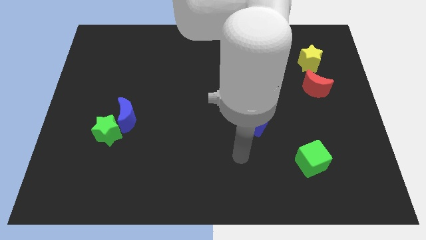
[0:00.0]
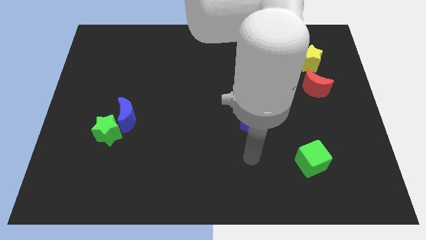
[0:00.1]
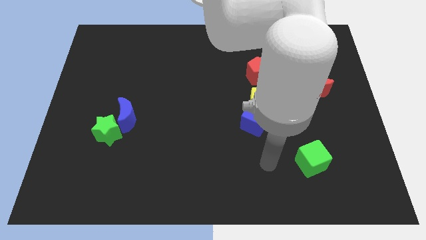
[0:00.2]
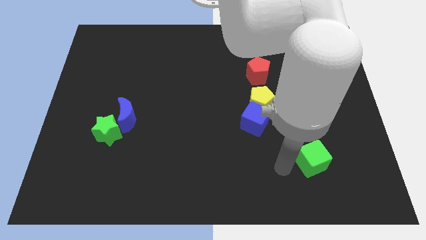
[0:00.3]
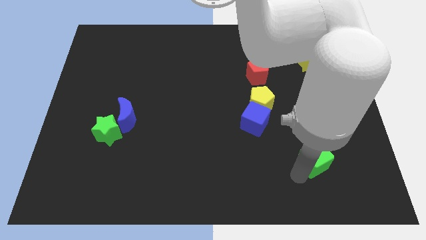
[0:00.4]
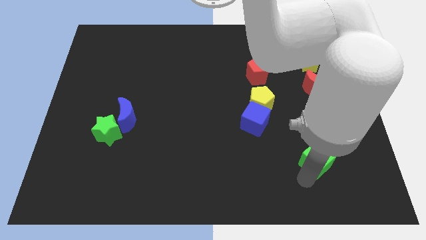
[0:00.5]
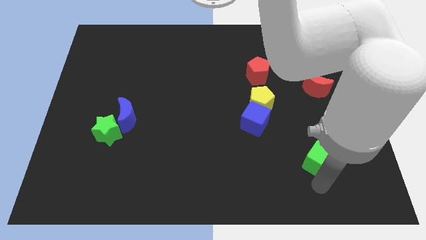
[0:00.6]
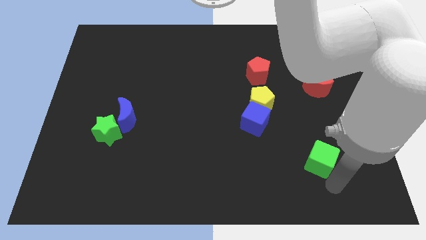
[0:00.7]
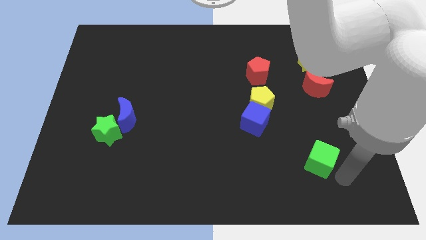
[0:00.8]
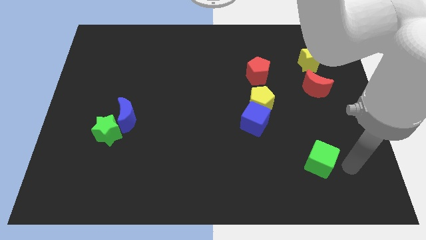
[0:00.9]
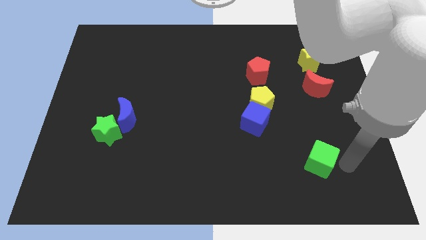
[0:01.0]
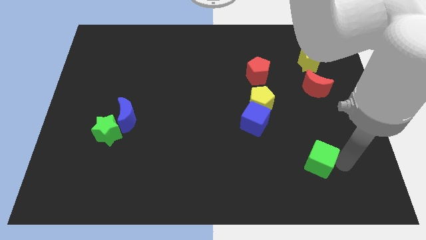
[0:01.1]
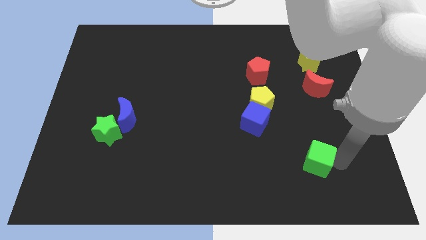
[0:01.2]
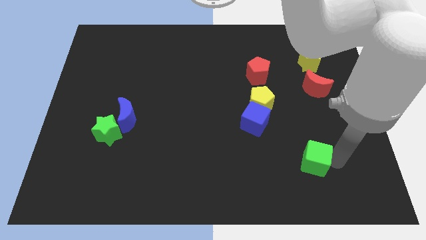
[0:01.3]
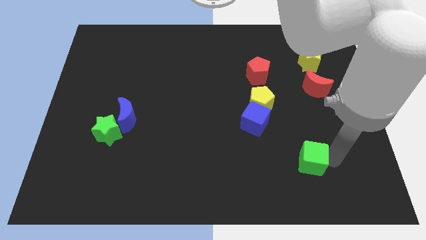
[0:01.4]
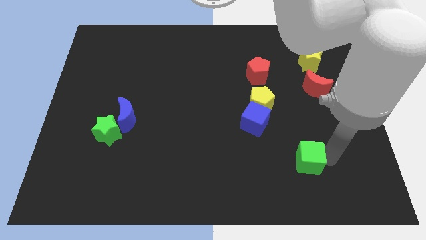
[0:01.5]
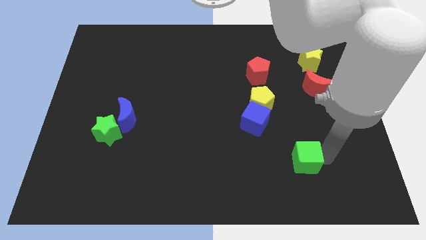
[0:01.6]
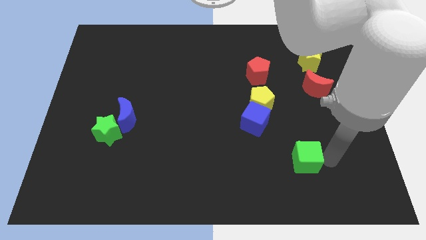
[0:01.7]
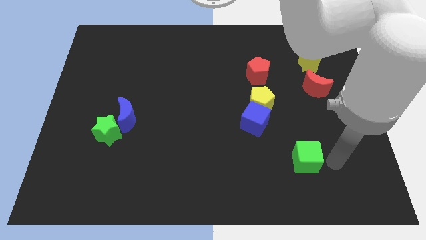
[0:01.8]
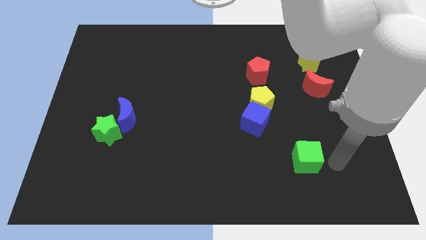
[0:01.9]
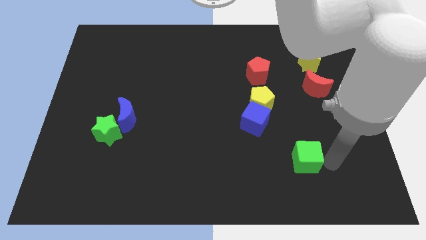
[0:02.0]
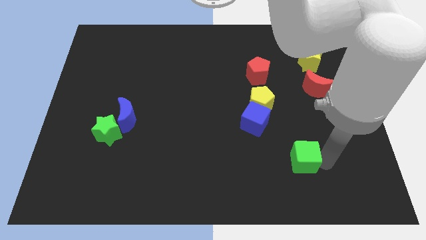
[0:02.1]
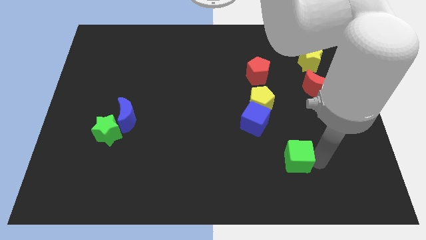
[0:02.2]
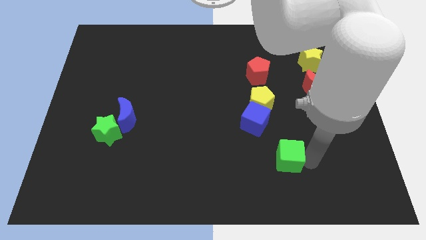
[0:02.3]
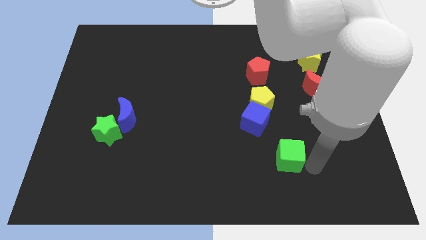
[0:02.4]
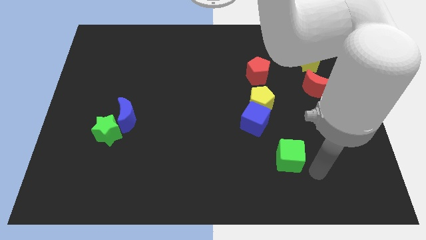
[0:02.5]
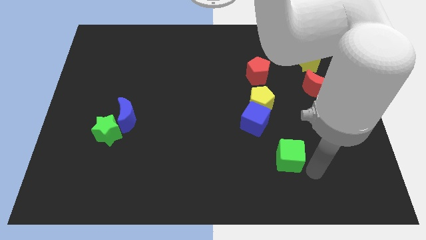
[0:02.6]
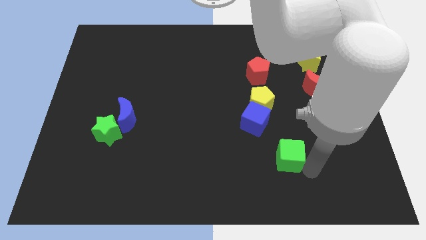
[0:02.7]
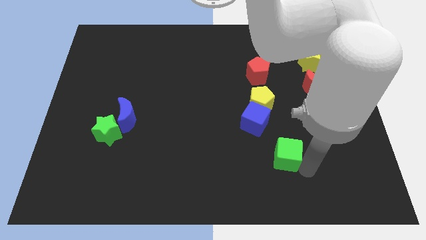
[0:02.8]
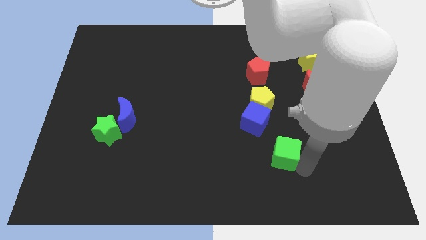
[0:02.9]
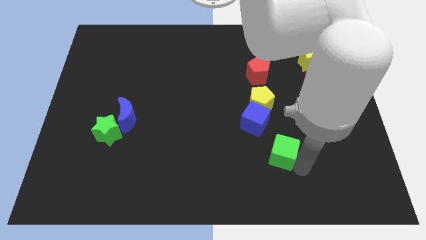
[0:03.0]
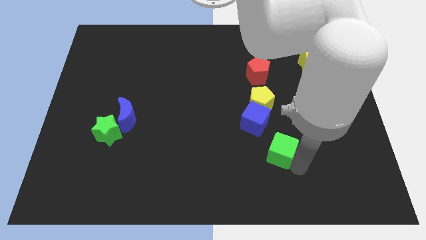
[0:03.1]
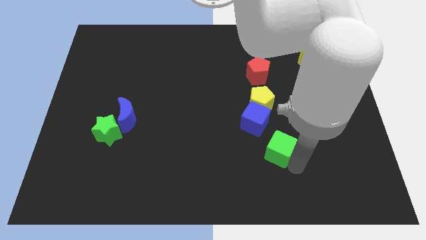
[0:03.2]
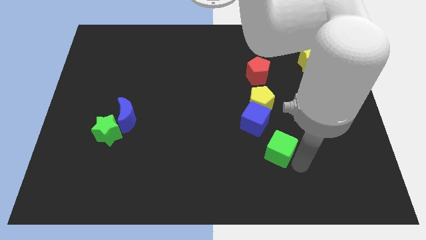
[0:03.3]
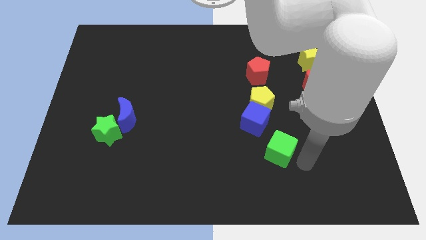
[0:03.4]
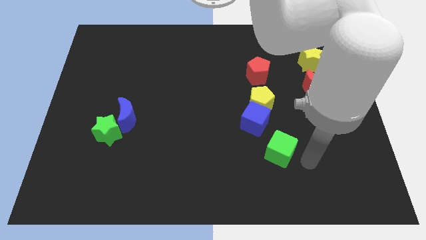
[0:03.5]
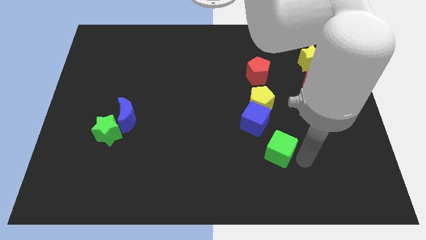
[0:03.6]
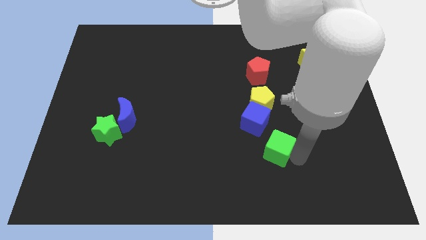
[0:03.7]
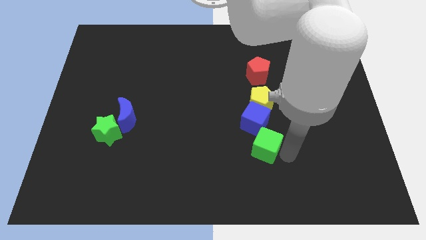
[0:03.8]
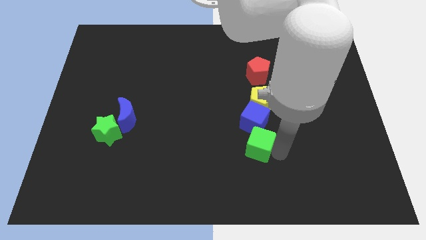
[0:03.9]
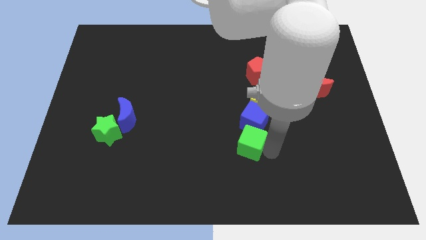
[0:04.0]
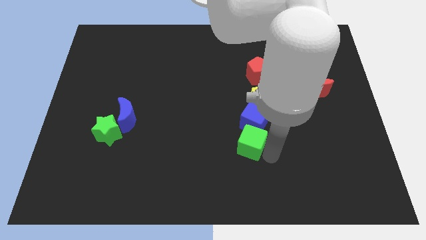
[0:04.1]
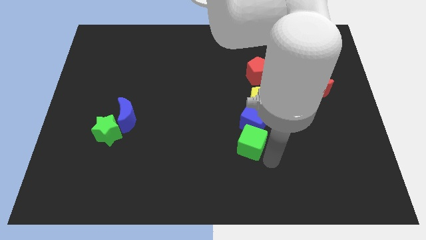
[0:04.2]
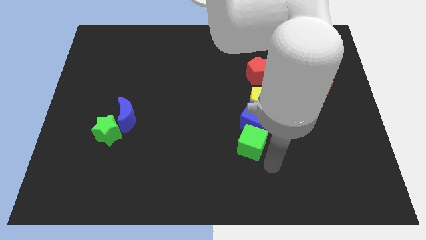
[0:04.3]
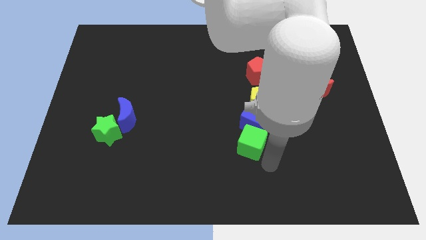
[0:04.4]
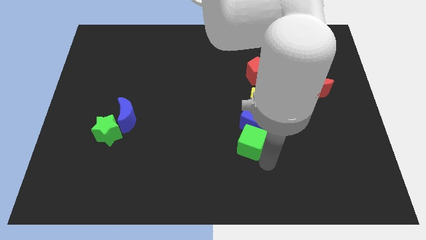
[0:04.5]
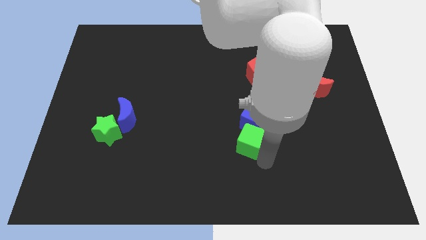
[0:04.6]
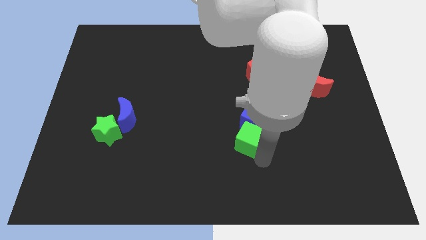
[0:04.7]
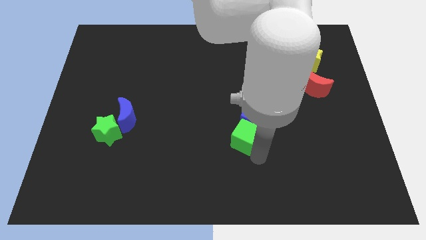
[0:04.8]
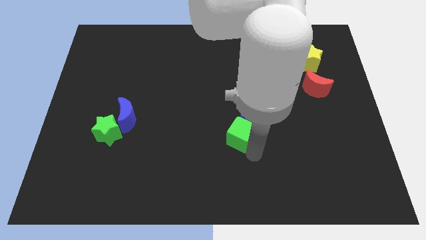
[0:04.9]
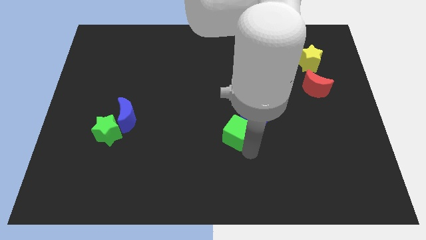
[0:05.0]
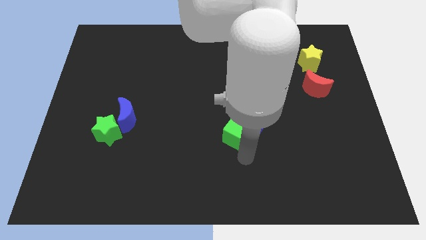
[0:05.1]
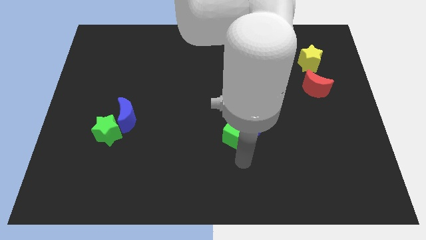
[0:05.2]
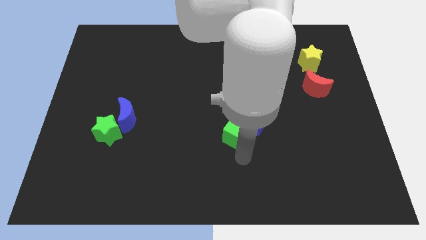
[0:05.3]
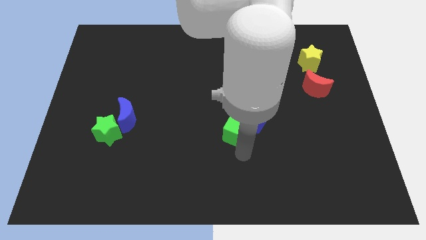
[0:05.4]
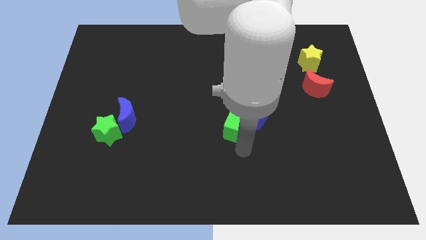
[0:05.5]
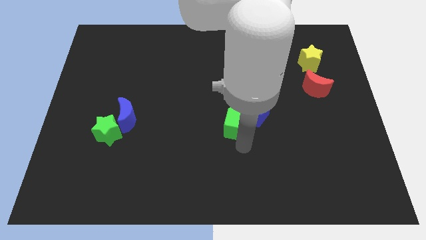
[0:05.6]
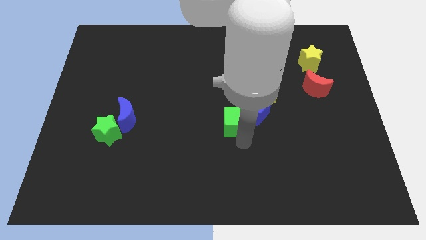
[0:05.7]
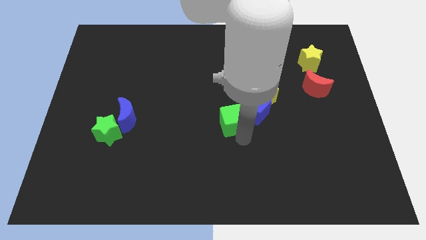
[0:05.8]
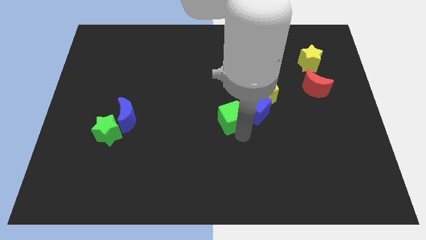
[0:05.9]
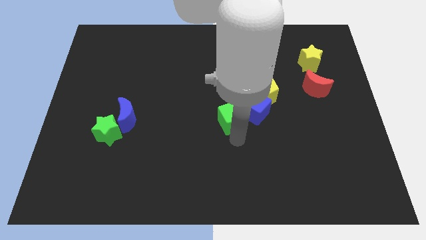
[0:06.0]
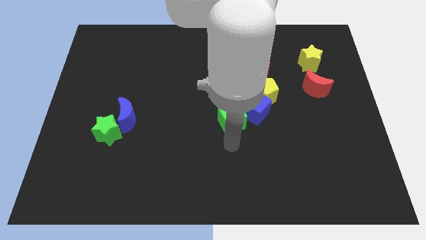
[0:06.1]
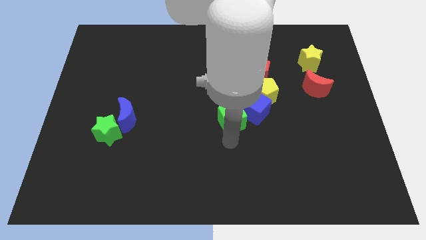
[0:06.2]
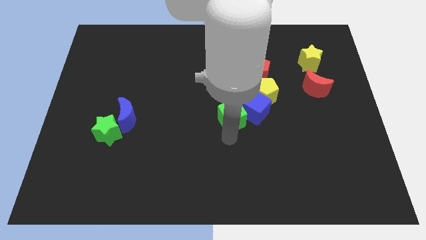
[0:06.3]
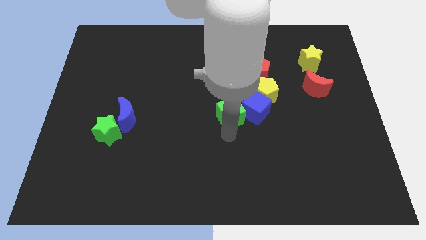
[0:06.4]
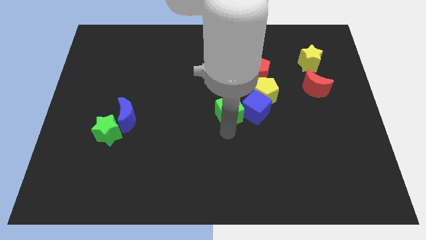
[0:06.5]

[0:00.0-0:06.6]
push the green cube to the top left side of the blue cube
